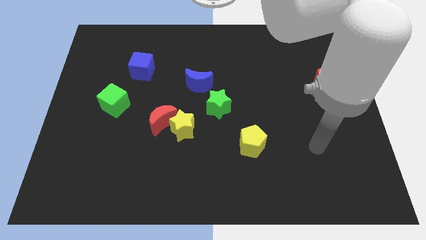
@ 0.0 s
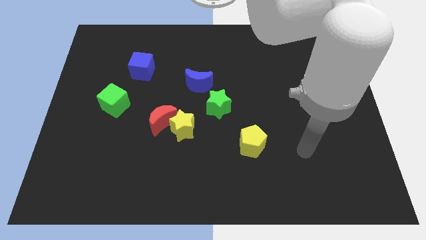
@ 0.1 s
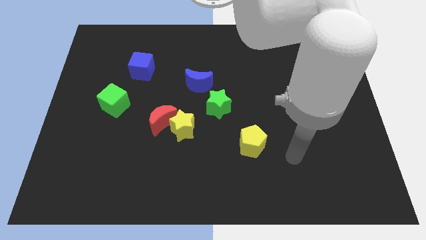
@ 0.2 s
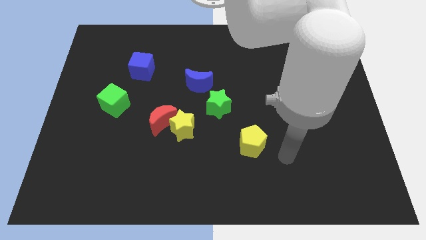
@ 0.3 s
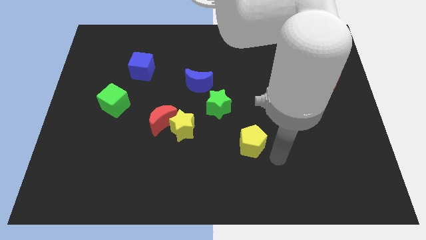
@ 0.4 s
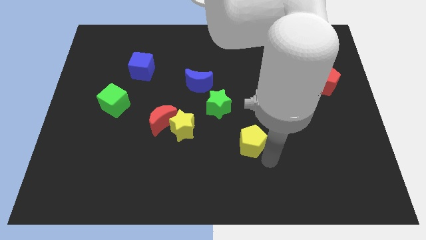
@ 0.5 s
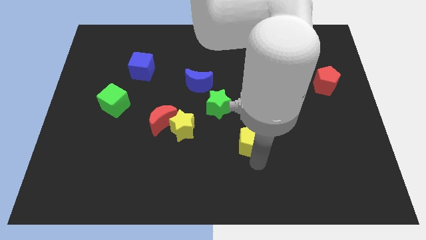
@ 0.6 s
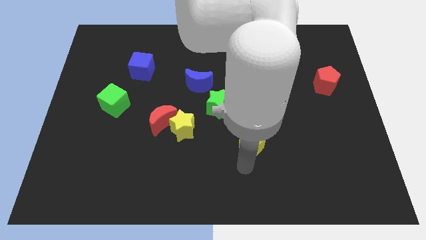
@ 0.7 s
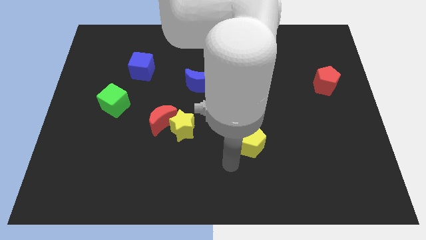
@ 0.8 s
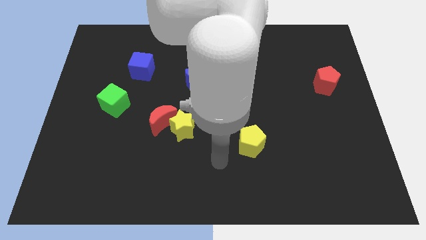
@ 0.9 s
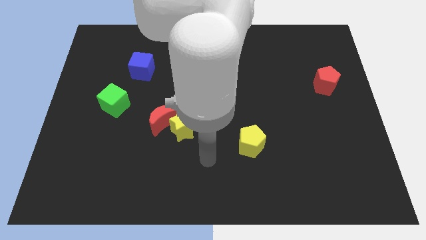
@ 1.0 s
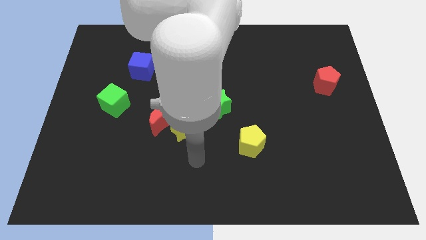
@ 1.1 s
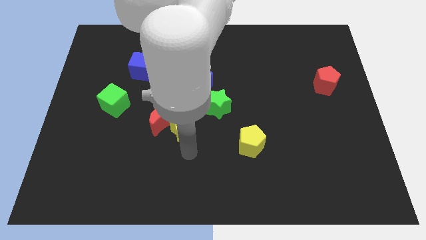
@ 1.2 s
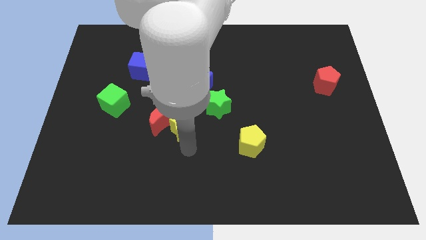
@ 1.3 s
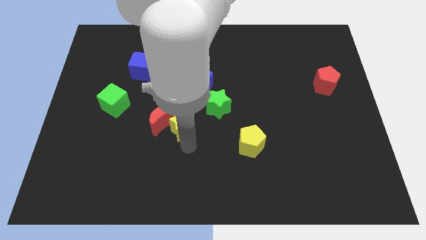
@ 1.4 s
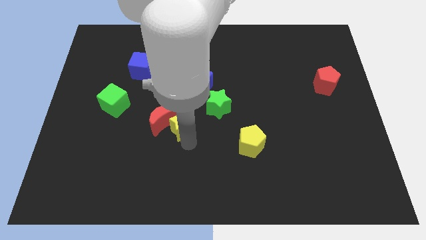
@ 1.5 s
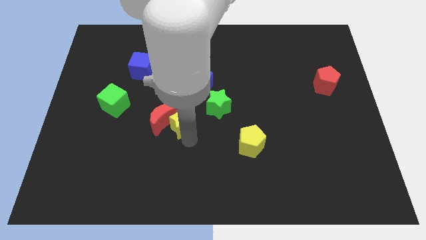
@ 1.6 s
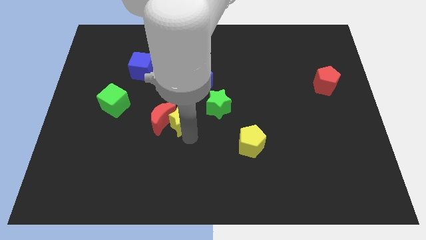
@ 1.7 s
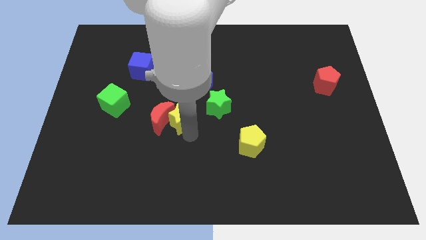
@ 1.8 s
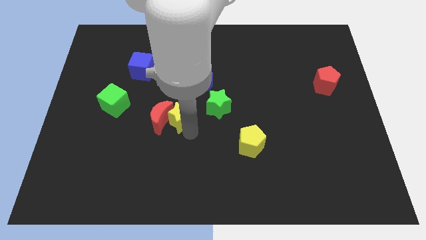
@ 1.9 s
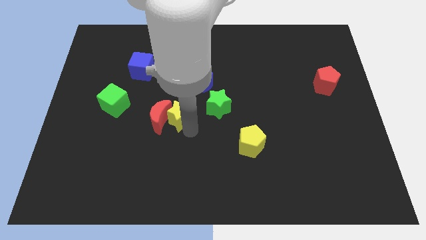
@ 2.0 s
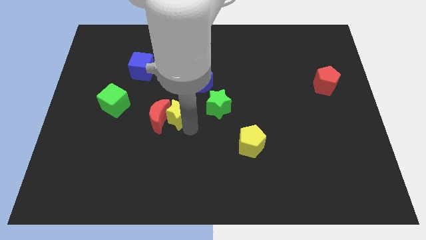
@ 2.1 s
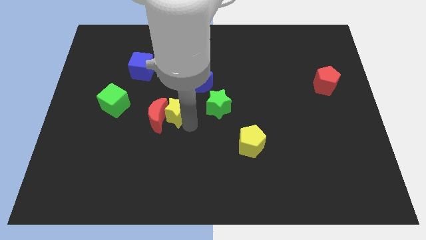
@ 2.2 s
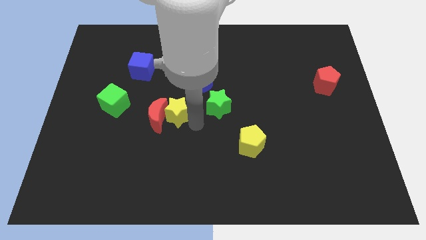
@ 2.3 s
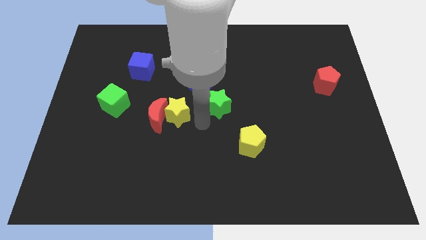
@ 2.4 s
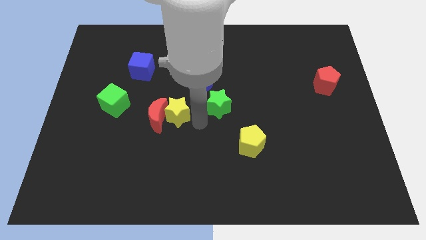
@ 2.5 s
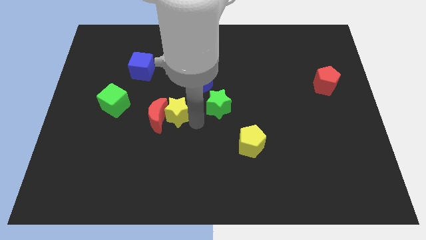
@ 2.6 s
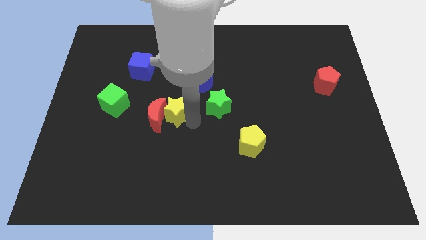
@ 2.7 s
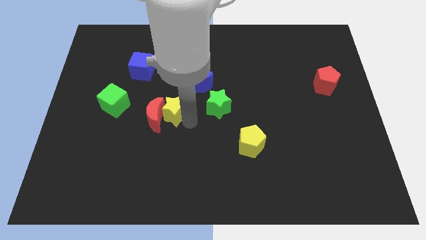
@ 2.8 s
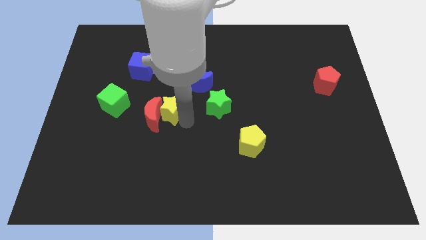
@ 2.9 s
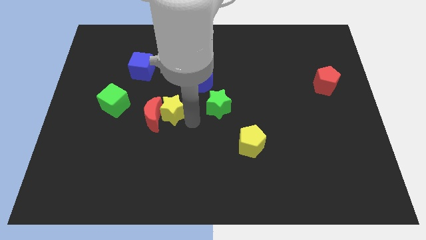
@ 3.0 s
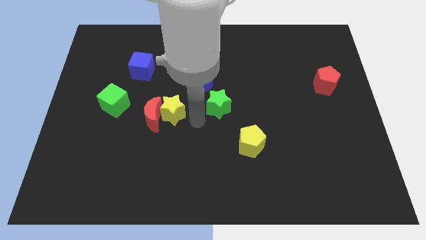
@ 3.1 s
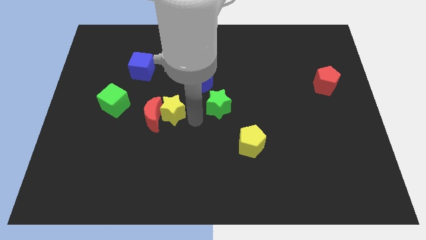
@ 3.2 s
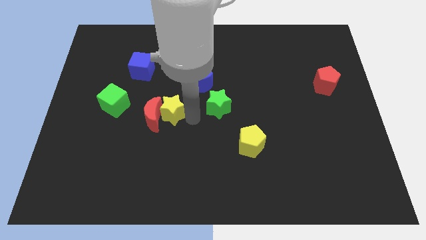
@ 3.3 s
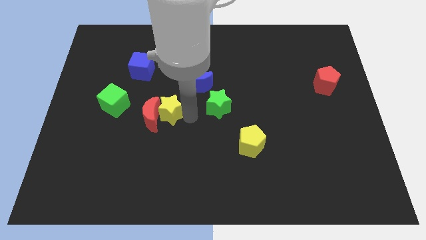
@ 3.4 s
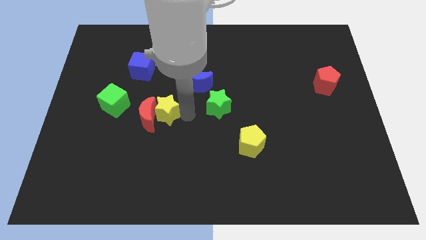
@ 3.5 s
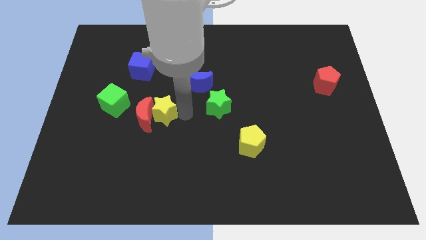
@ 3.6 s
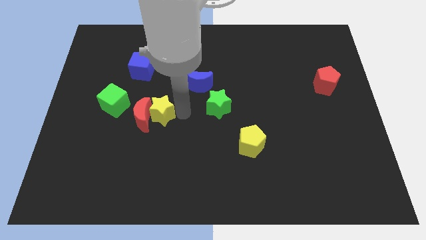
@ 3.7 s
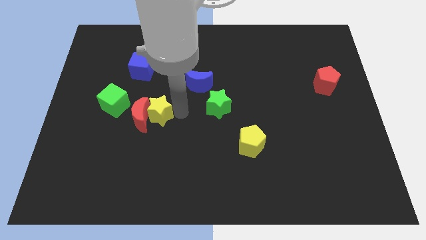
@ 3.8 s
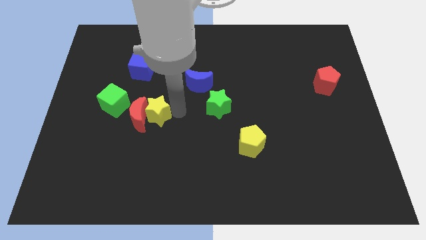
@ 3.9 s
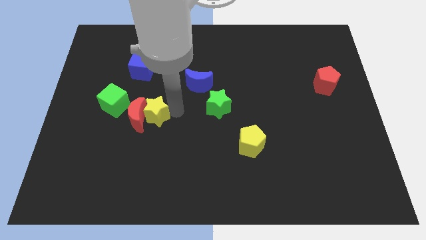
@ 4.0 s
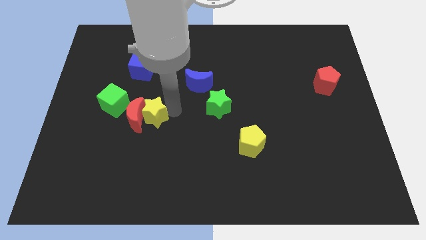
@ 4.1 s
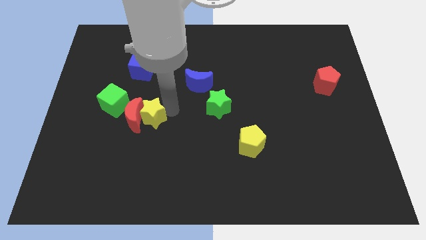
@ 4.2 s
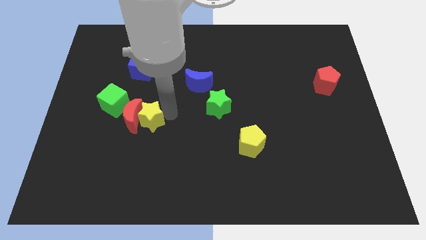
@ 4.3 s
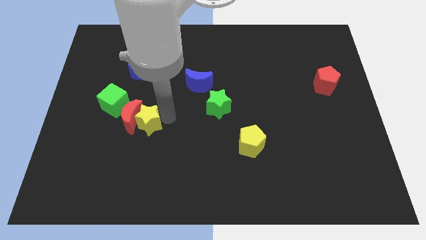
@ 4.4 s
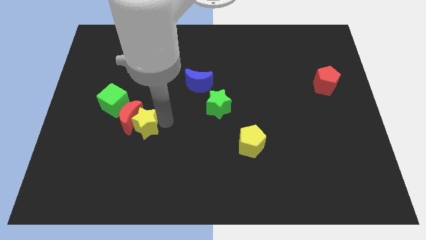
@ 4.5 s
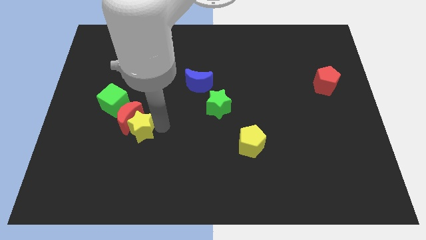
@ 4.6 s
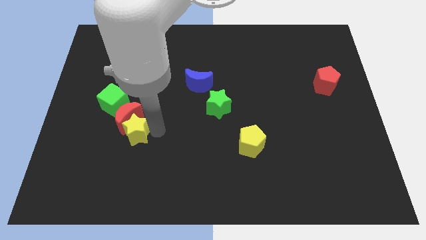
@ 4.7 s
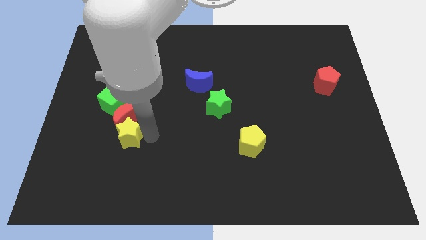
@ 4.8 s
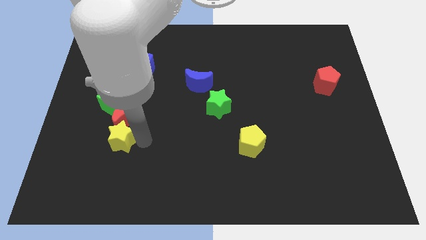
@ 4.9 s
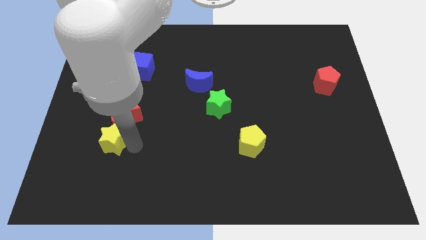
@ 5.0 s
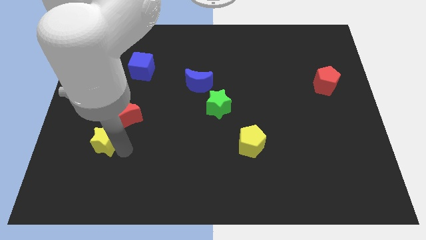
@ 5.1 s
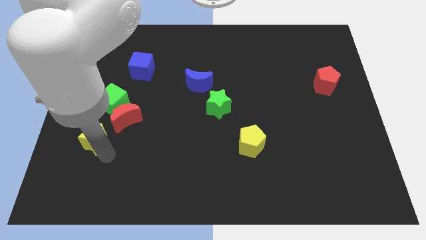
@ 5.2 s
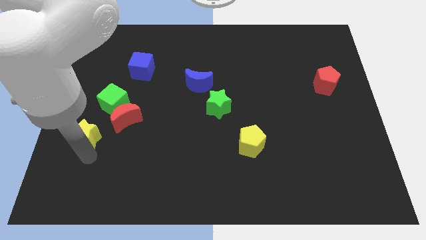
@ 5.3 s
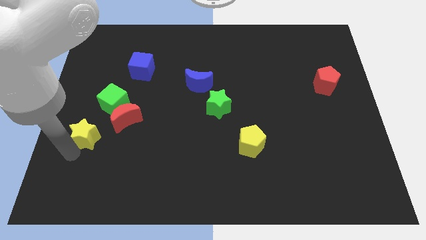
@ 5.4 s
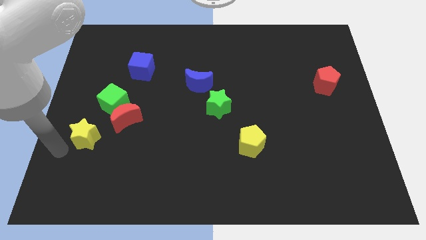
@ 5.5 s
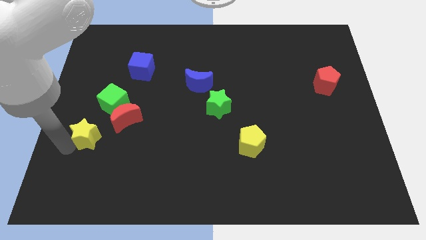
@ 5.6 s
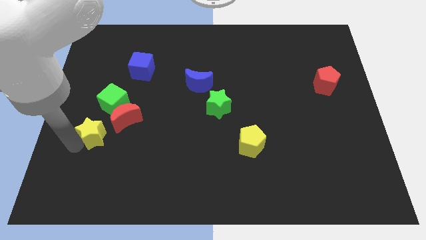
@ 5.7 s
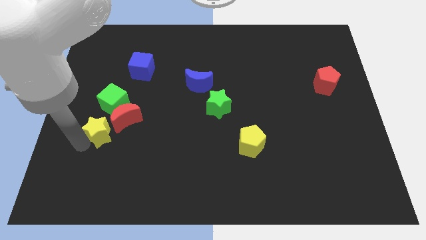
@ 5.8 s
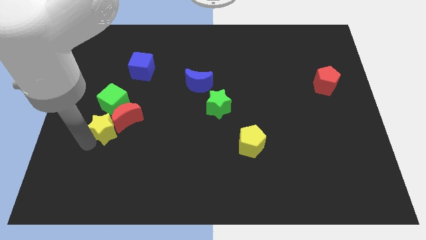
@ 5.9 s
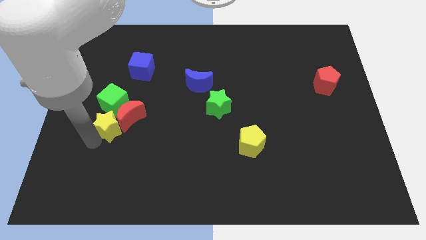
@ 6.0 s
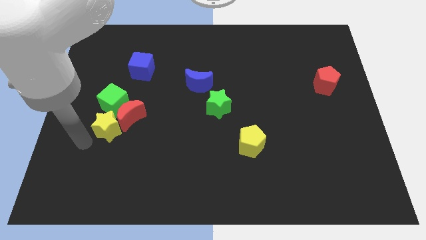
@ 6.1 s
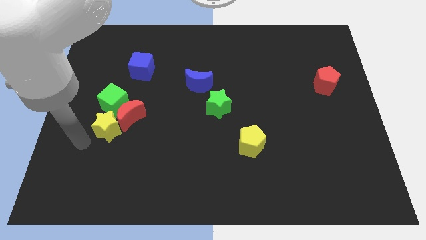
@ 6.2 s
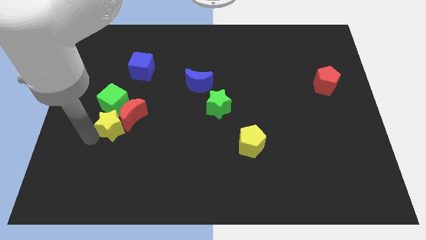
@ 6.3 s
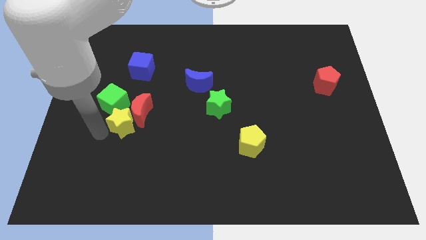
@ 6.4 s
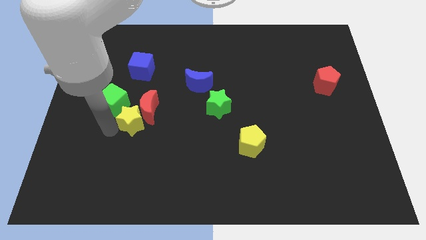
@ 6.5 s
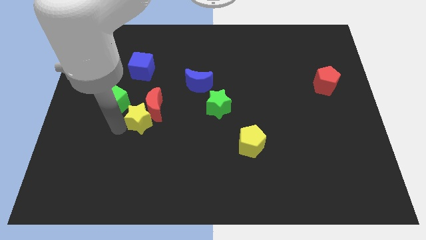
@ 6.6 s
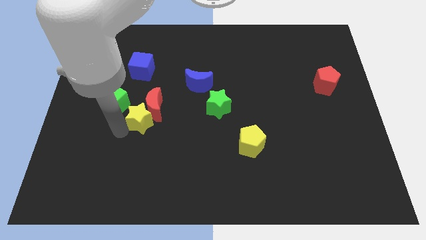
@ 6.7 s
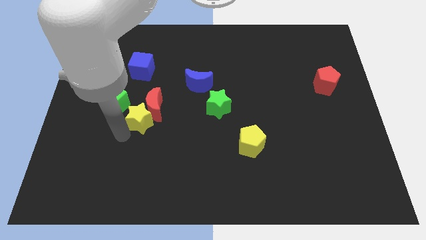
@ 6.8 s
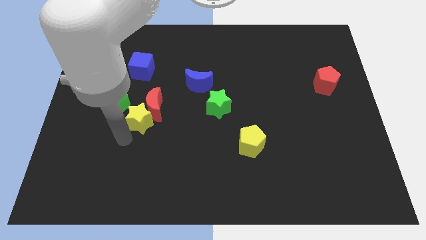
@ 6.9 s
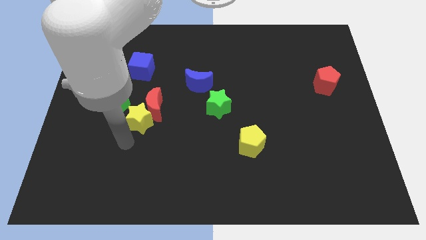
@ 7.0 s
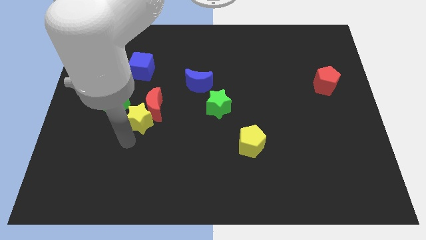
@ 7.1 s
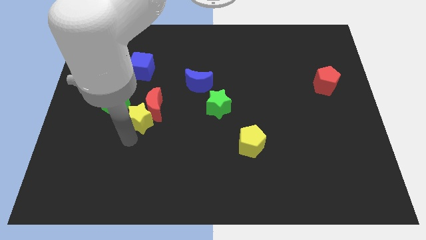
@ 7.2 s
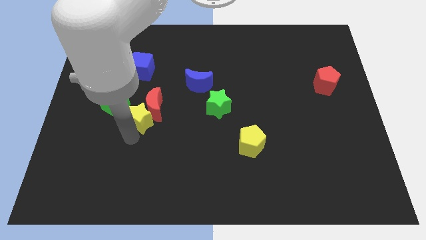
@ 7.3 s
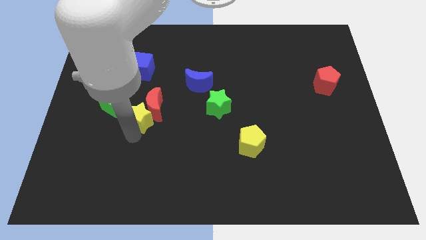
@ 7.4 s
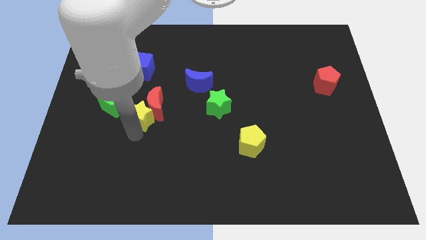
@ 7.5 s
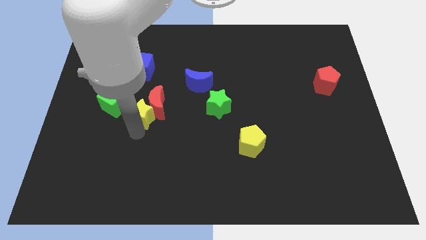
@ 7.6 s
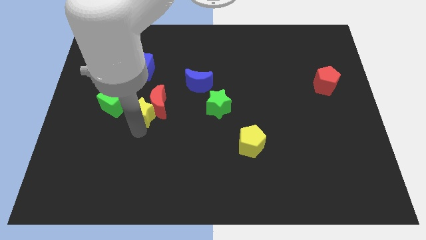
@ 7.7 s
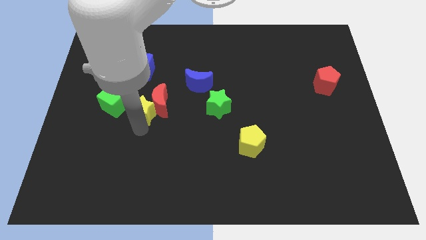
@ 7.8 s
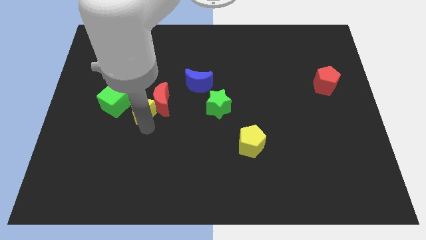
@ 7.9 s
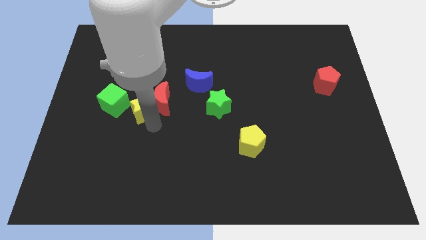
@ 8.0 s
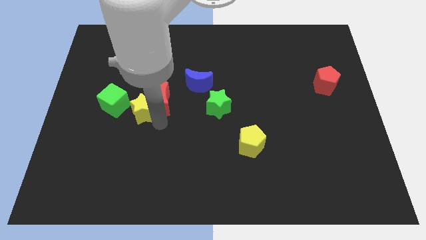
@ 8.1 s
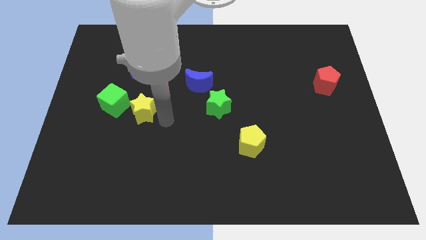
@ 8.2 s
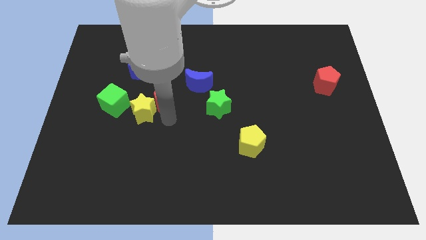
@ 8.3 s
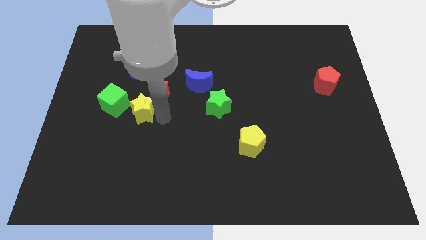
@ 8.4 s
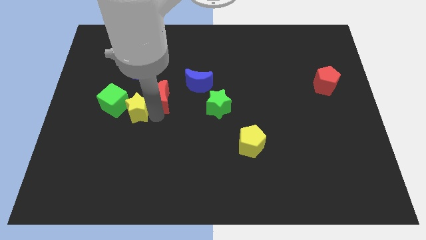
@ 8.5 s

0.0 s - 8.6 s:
put the yellow star to the green cube
